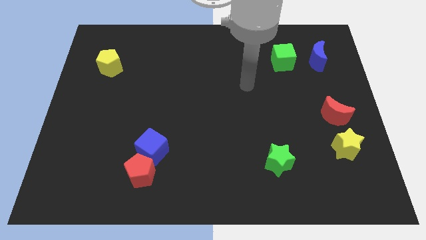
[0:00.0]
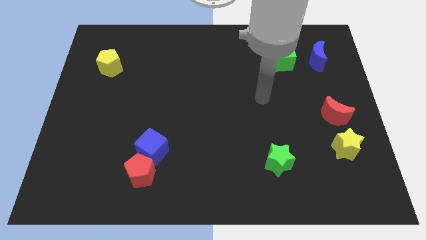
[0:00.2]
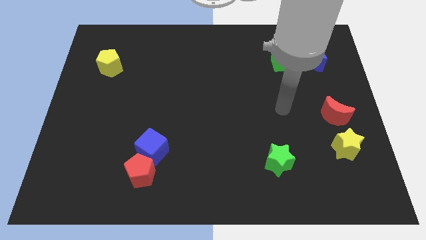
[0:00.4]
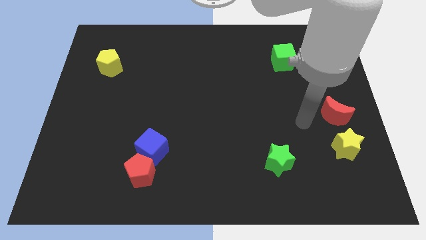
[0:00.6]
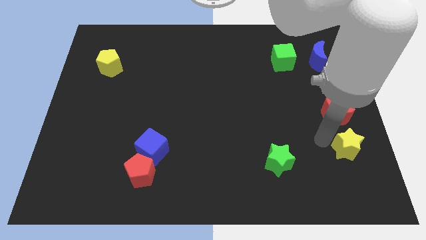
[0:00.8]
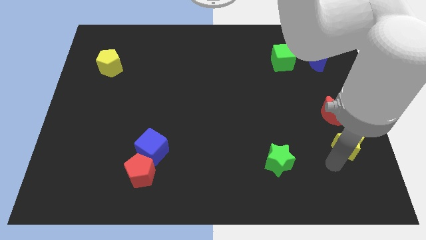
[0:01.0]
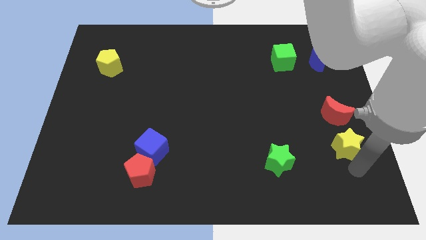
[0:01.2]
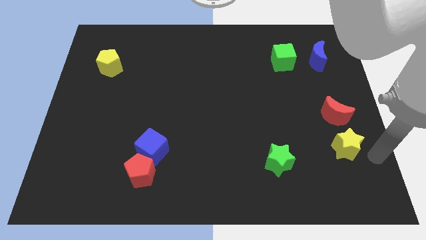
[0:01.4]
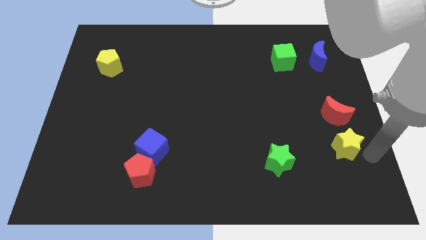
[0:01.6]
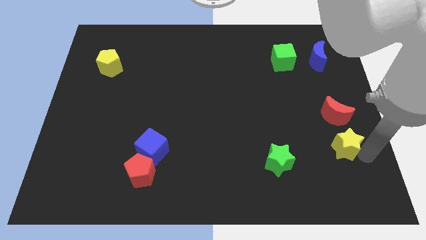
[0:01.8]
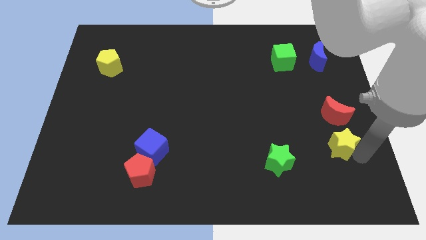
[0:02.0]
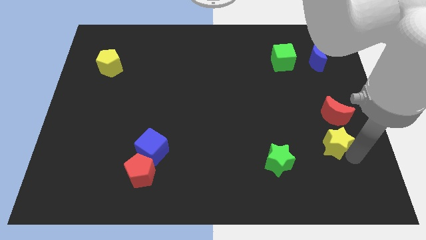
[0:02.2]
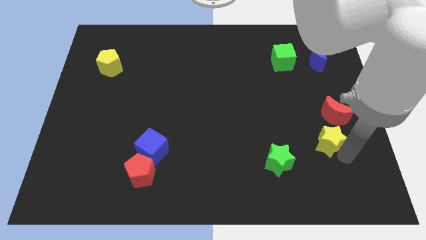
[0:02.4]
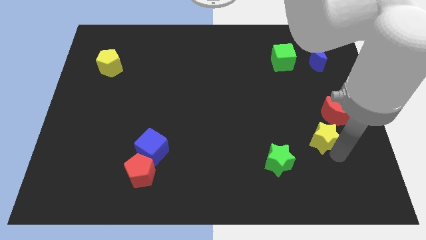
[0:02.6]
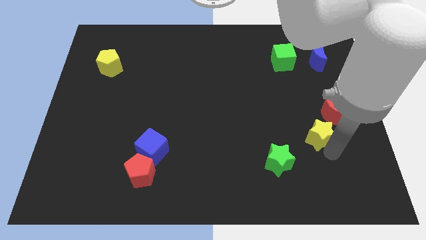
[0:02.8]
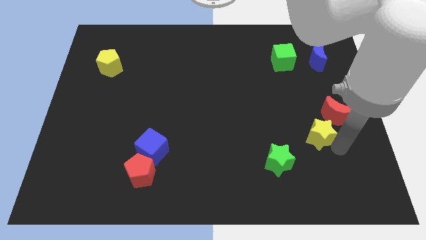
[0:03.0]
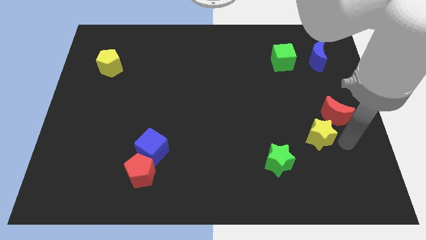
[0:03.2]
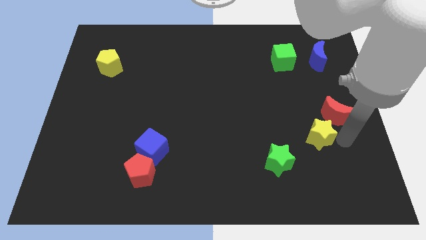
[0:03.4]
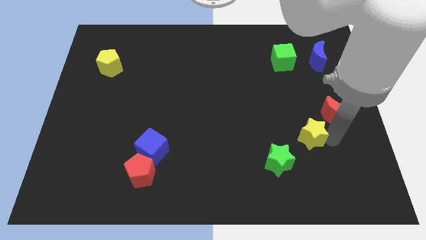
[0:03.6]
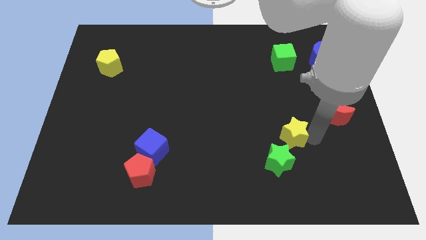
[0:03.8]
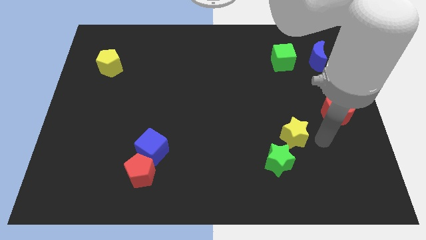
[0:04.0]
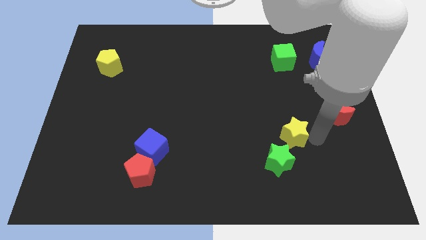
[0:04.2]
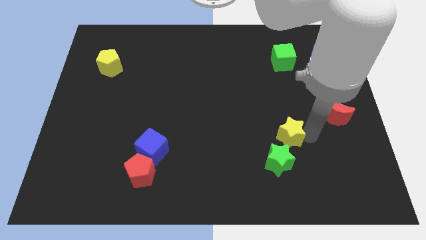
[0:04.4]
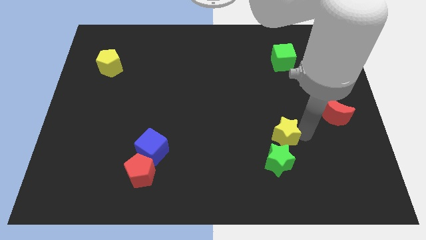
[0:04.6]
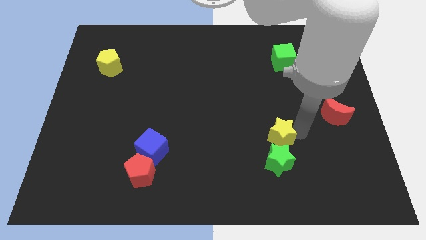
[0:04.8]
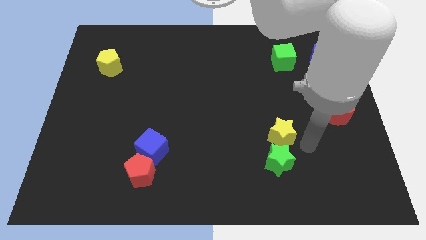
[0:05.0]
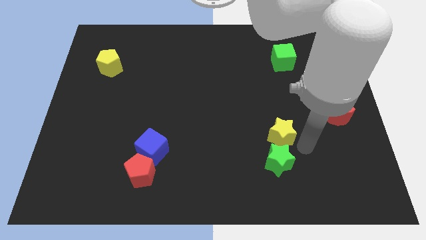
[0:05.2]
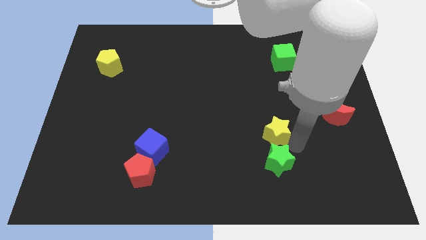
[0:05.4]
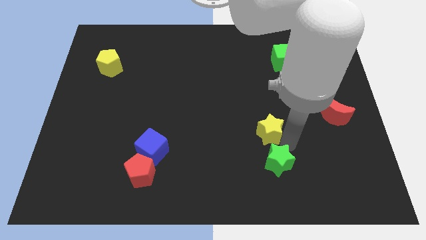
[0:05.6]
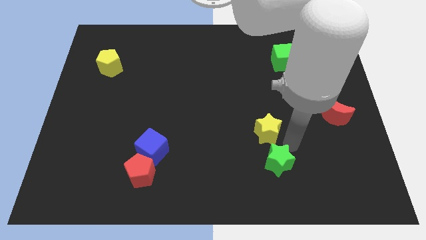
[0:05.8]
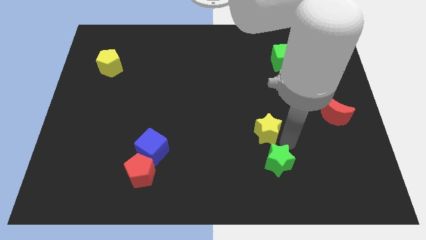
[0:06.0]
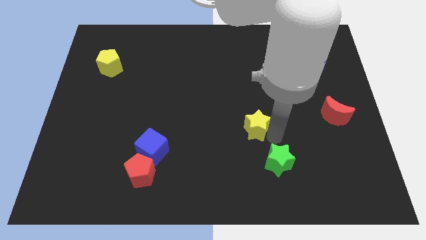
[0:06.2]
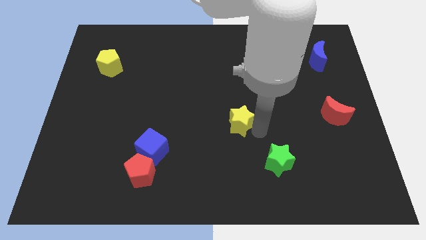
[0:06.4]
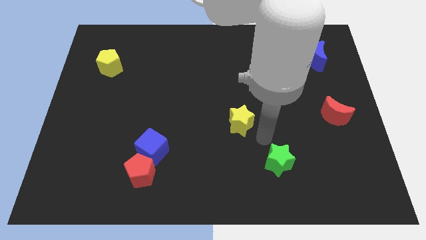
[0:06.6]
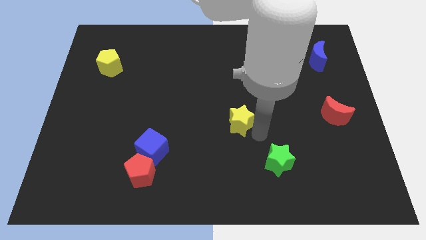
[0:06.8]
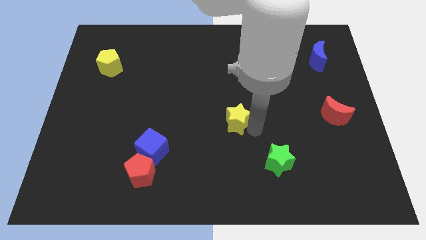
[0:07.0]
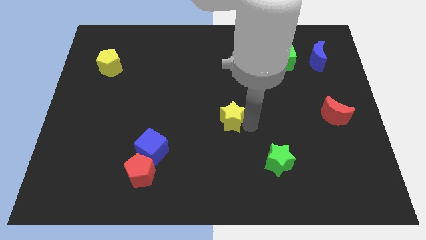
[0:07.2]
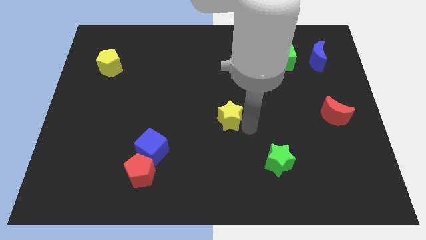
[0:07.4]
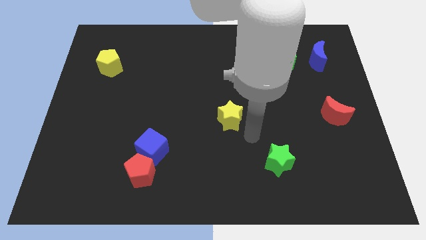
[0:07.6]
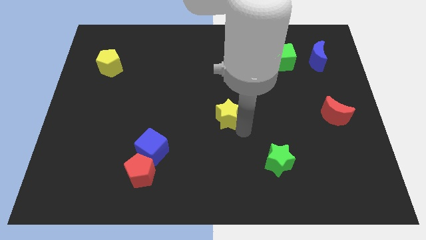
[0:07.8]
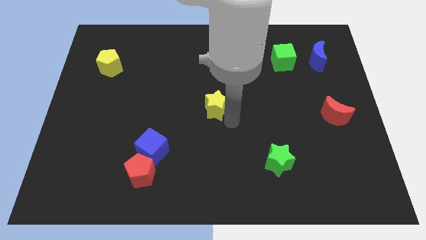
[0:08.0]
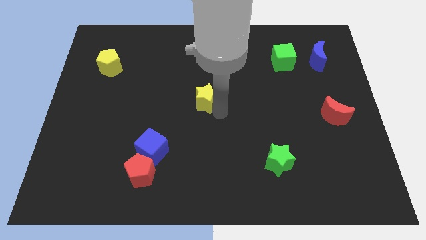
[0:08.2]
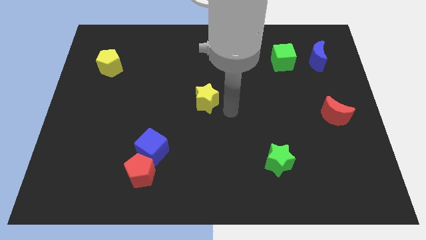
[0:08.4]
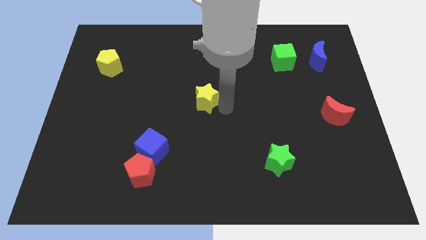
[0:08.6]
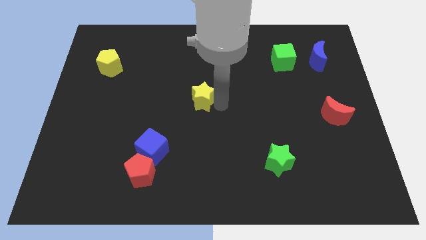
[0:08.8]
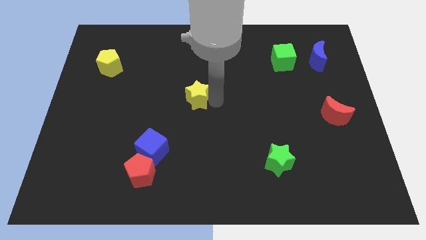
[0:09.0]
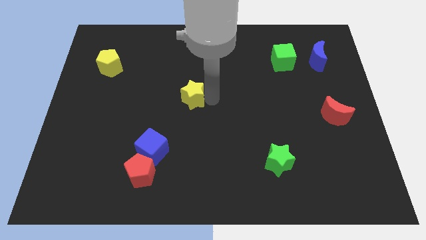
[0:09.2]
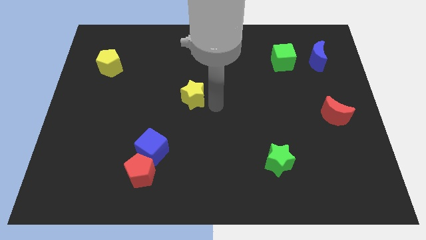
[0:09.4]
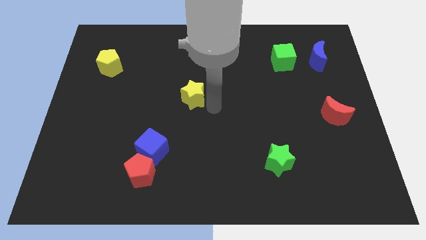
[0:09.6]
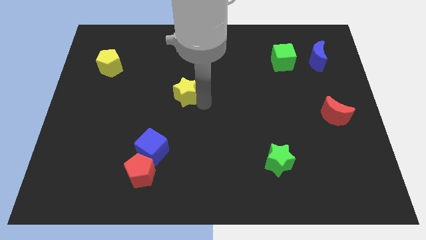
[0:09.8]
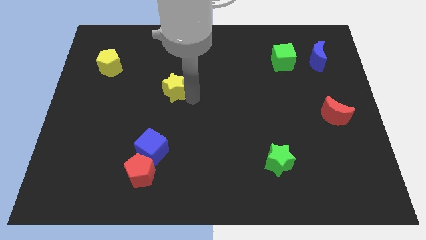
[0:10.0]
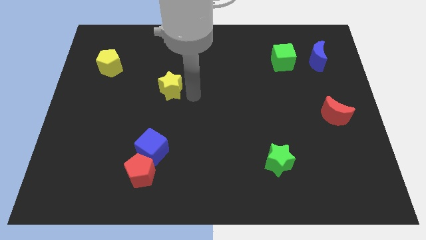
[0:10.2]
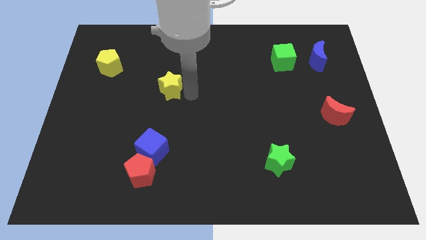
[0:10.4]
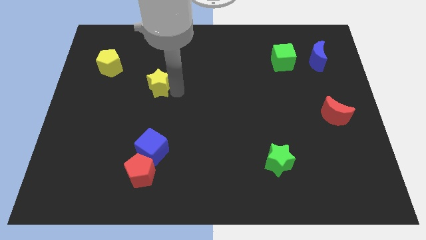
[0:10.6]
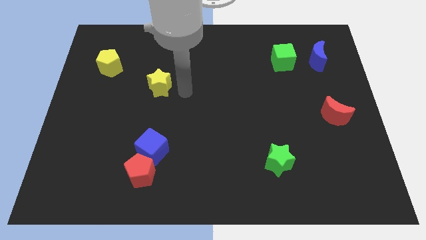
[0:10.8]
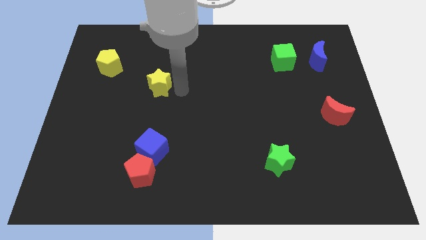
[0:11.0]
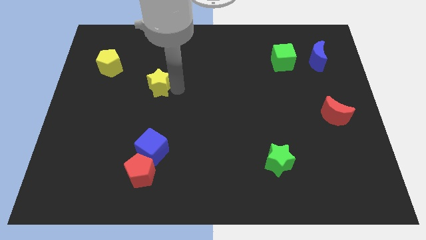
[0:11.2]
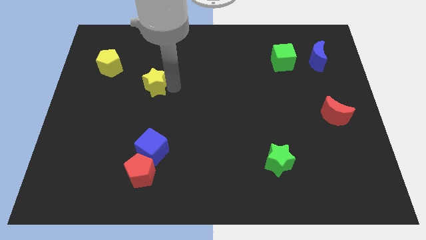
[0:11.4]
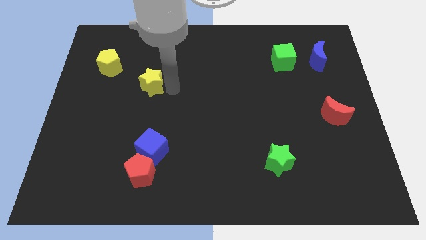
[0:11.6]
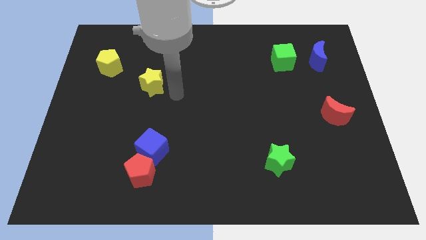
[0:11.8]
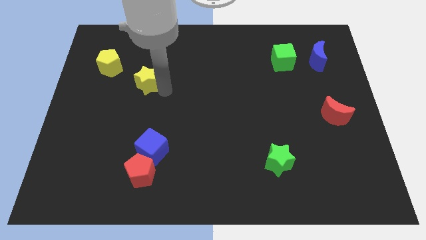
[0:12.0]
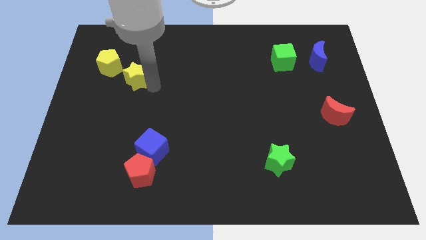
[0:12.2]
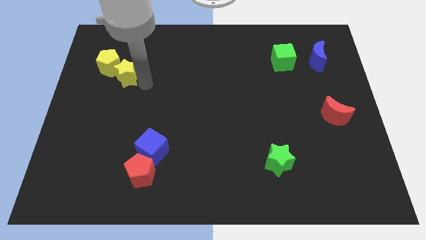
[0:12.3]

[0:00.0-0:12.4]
put the yellow star close to the yellow pentagon

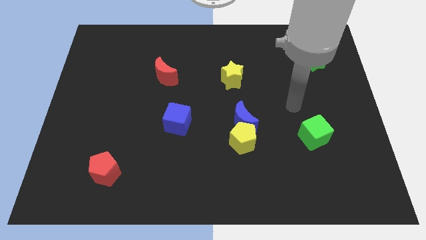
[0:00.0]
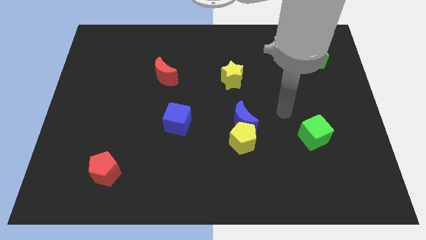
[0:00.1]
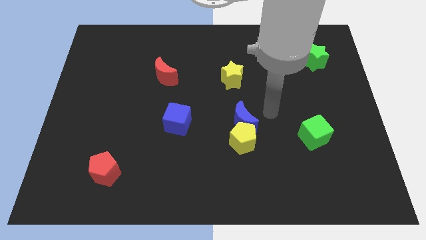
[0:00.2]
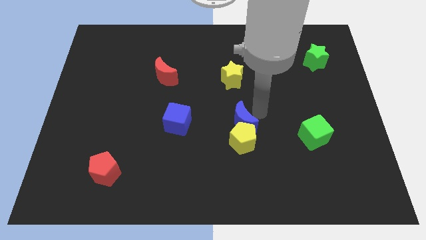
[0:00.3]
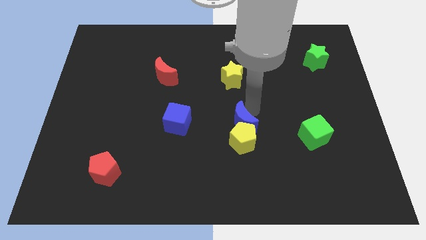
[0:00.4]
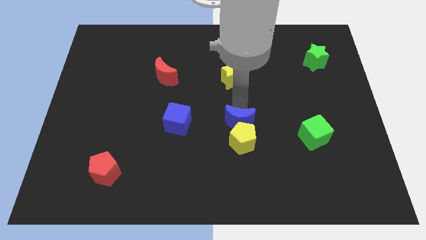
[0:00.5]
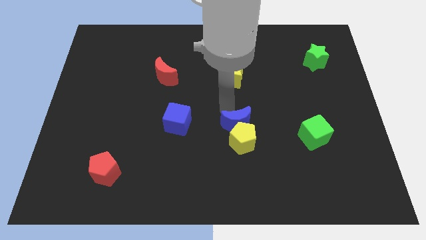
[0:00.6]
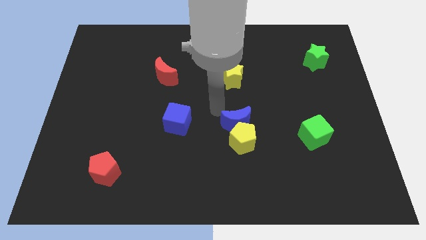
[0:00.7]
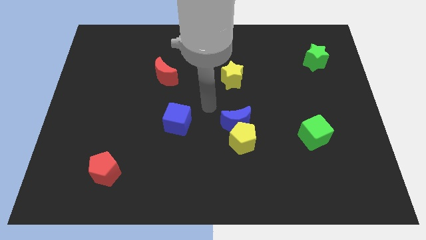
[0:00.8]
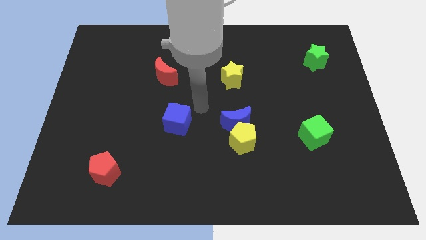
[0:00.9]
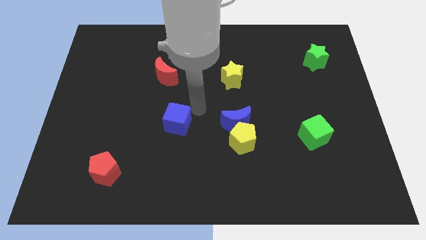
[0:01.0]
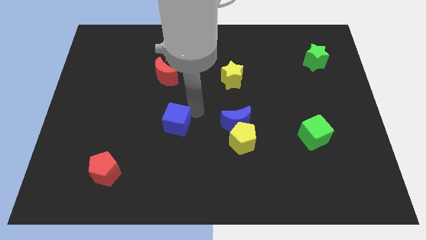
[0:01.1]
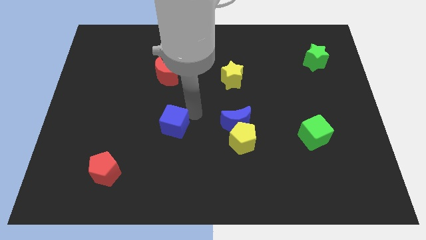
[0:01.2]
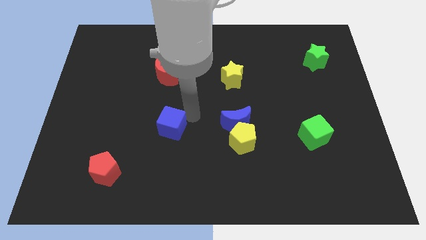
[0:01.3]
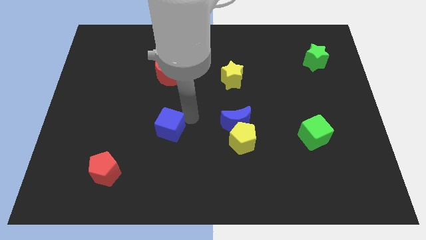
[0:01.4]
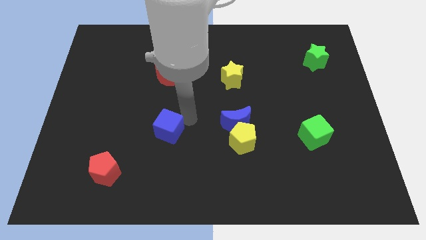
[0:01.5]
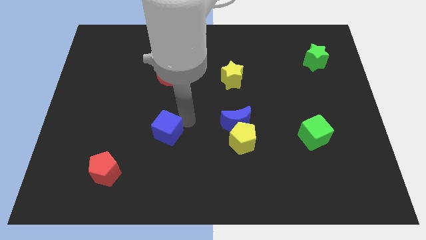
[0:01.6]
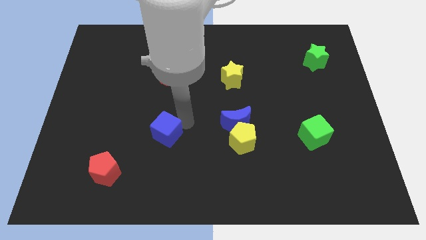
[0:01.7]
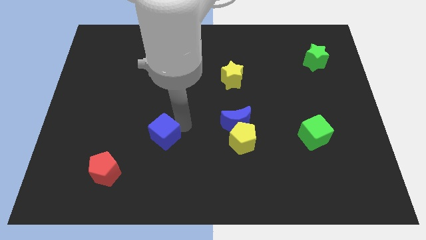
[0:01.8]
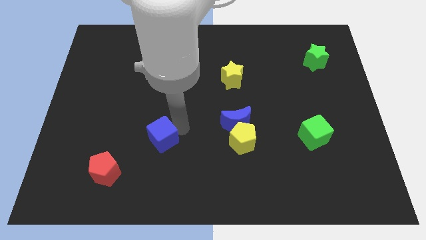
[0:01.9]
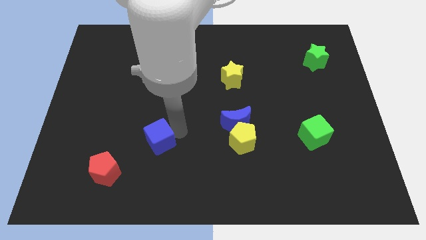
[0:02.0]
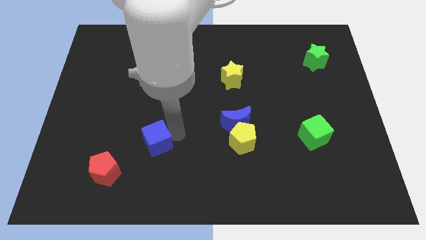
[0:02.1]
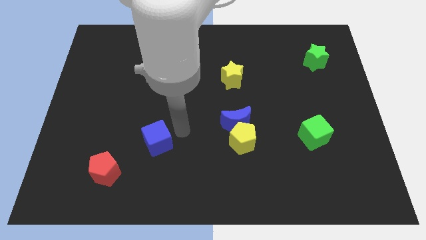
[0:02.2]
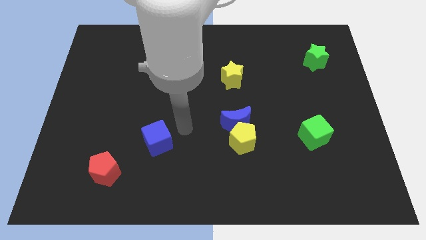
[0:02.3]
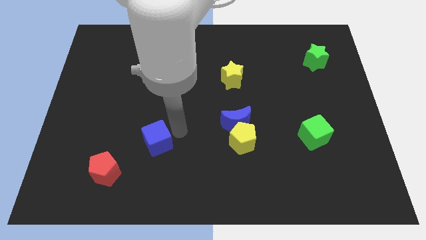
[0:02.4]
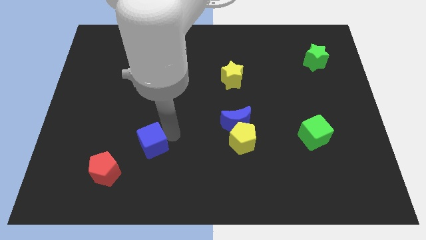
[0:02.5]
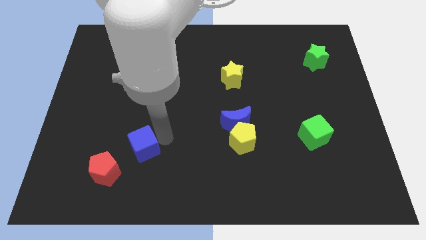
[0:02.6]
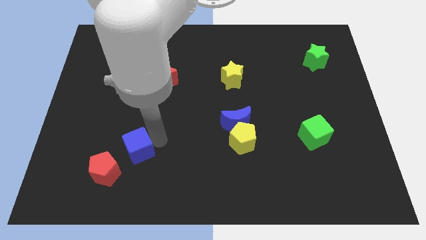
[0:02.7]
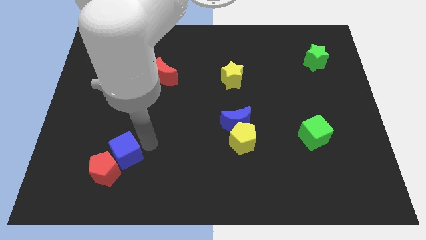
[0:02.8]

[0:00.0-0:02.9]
push the blue cube towards the red pentagon
